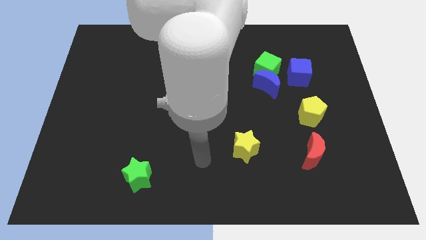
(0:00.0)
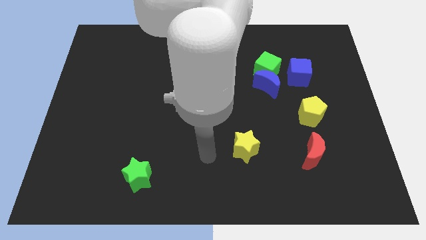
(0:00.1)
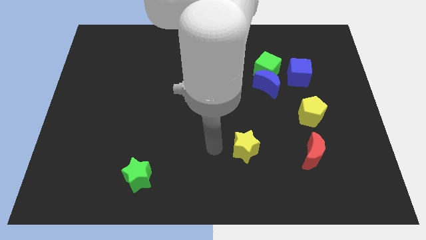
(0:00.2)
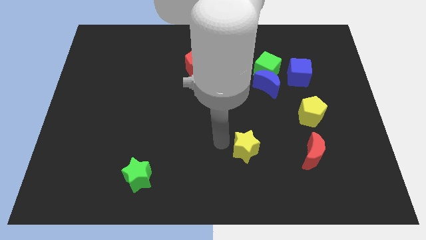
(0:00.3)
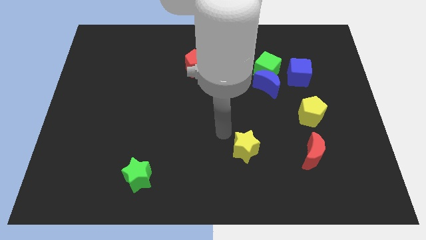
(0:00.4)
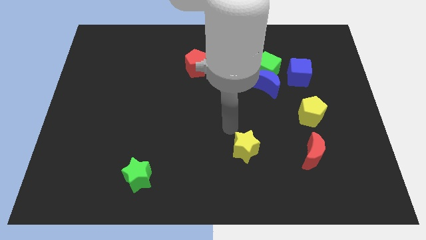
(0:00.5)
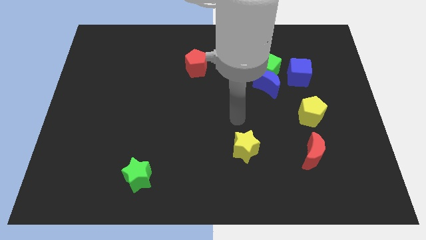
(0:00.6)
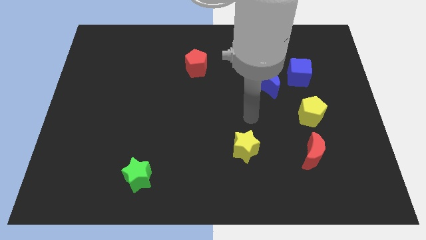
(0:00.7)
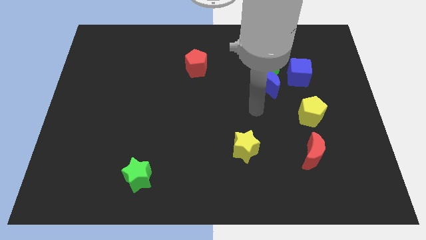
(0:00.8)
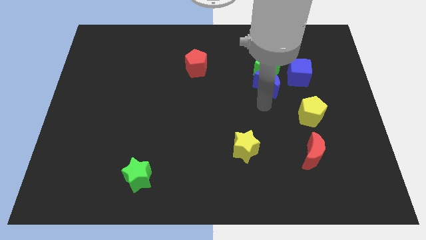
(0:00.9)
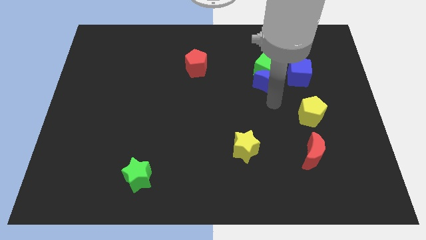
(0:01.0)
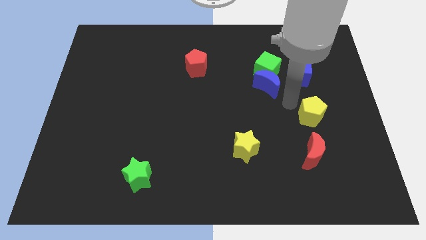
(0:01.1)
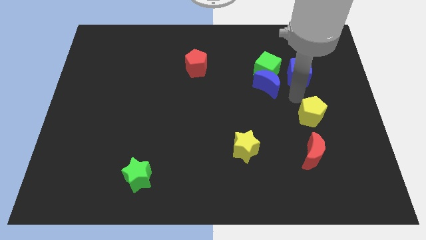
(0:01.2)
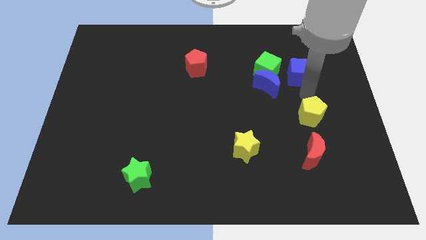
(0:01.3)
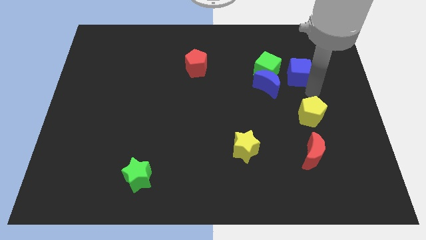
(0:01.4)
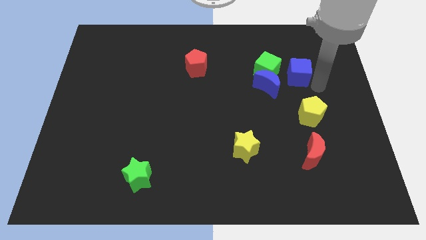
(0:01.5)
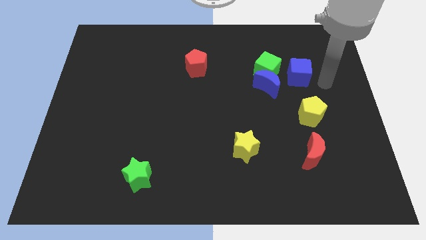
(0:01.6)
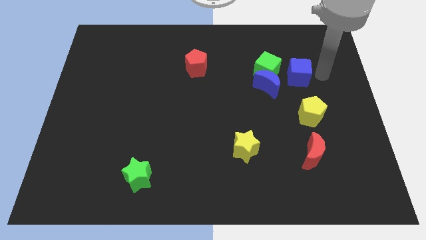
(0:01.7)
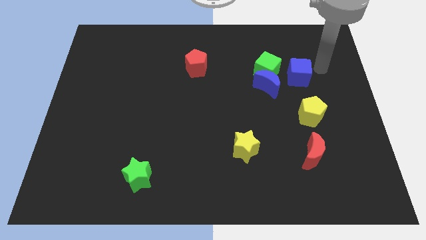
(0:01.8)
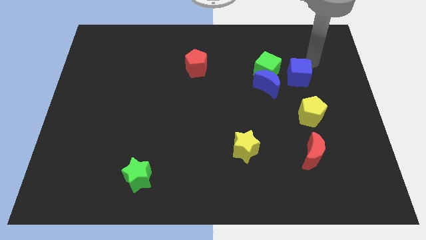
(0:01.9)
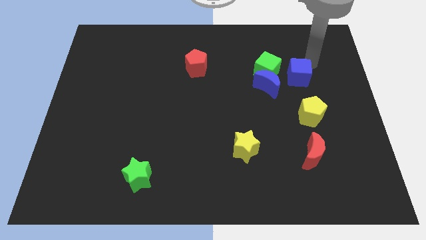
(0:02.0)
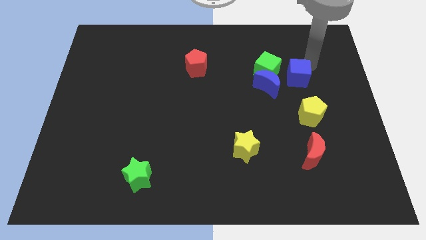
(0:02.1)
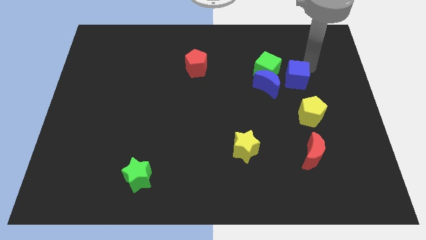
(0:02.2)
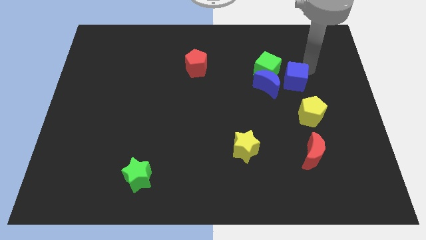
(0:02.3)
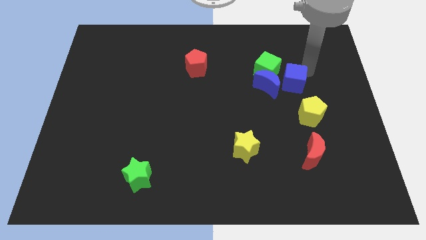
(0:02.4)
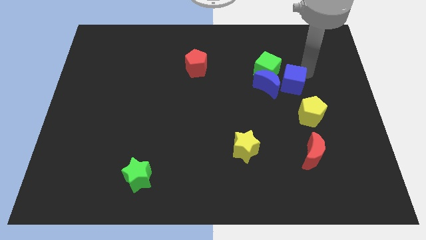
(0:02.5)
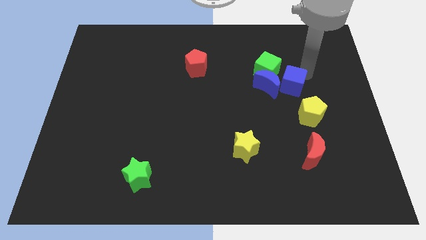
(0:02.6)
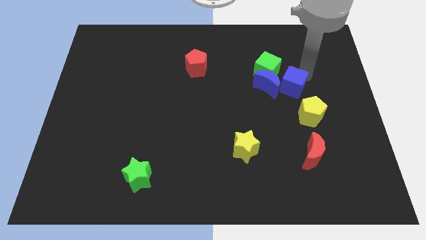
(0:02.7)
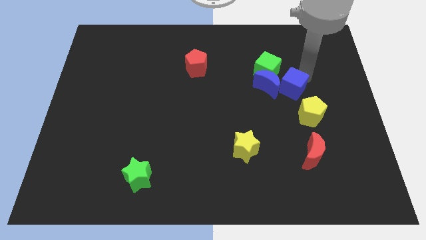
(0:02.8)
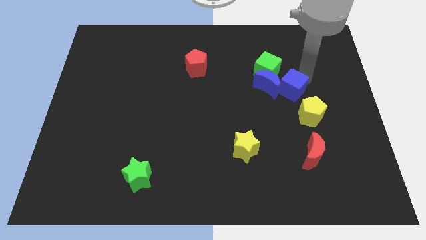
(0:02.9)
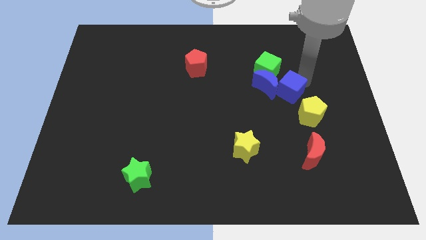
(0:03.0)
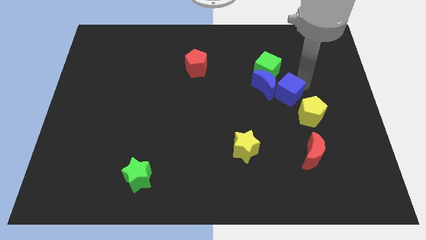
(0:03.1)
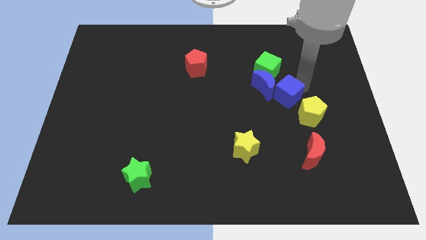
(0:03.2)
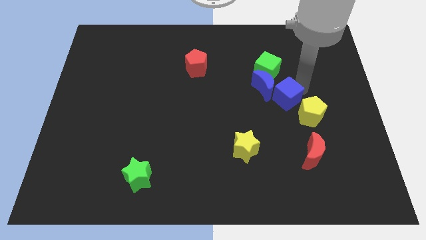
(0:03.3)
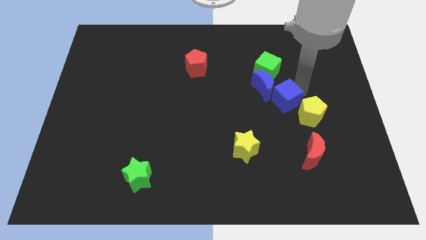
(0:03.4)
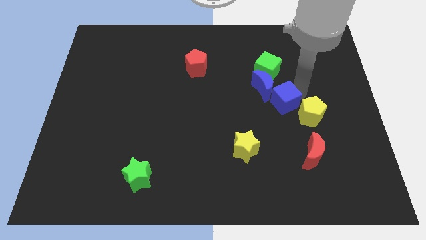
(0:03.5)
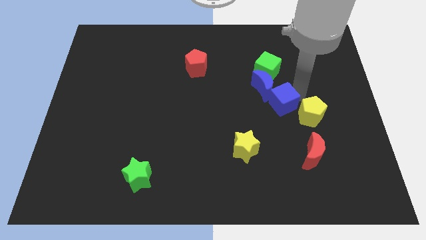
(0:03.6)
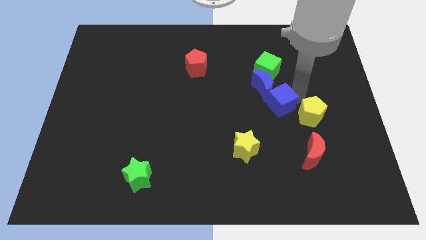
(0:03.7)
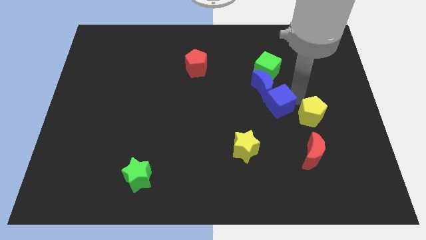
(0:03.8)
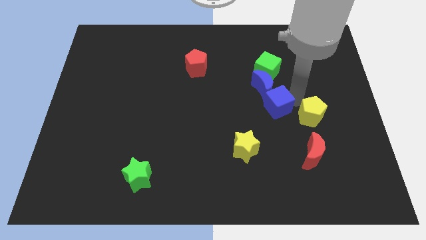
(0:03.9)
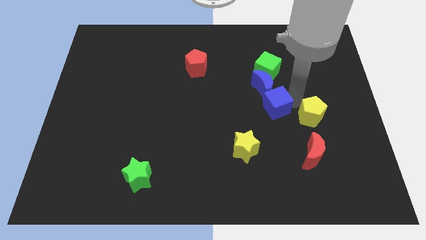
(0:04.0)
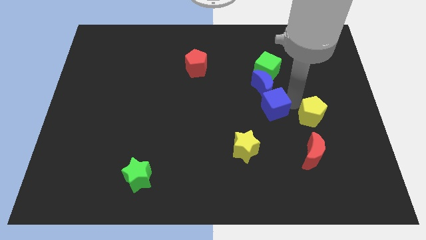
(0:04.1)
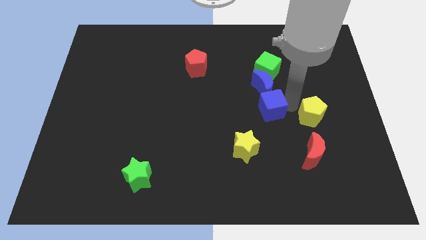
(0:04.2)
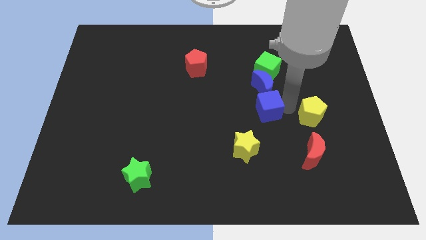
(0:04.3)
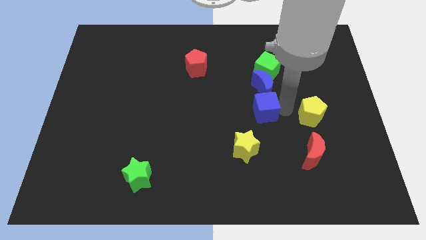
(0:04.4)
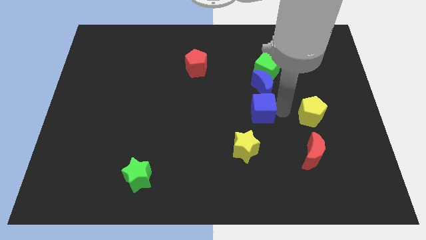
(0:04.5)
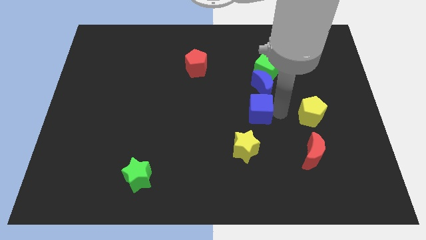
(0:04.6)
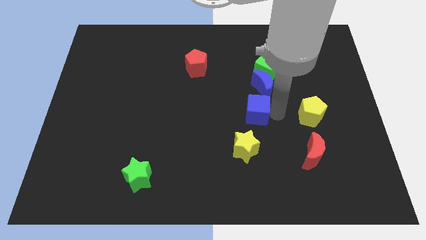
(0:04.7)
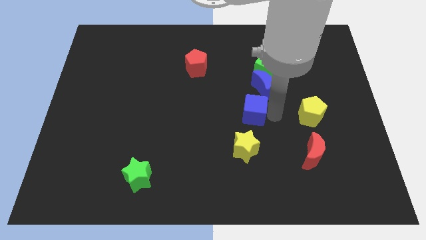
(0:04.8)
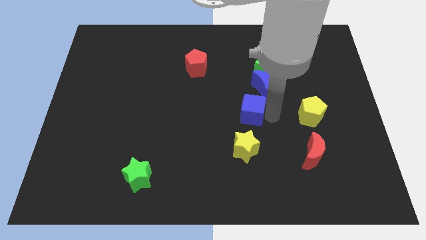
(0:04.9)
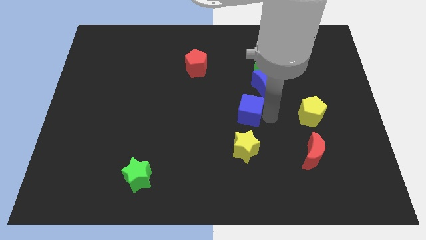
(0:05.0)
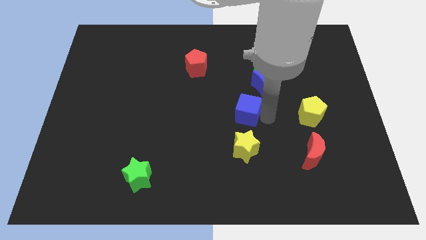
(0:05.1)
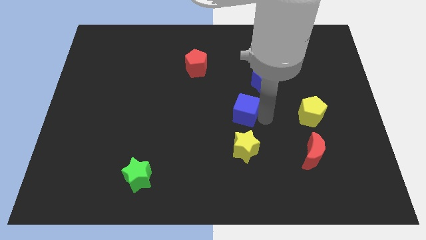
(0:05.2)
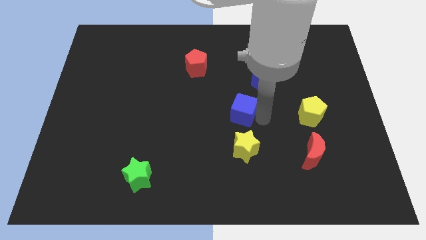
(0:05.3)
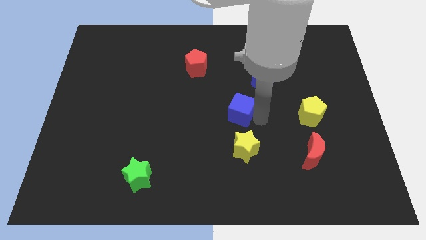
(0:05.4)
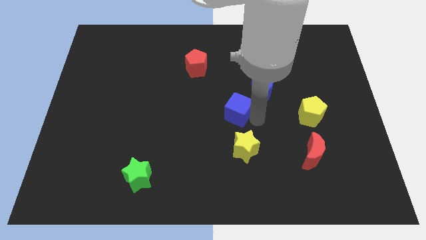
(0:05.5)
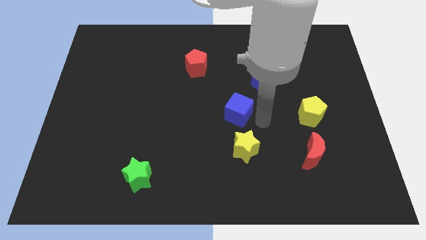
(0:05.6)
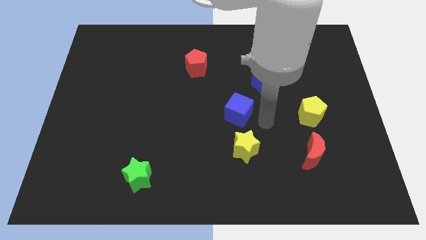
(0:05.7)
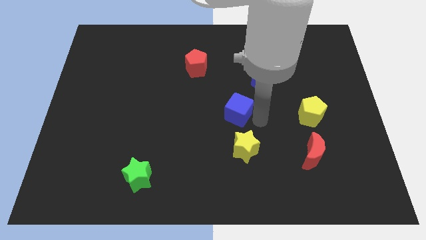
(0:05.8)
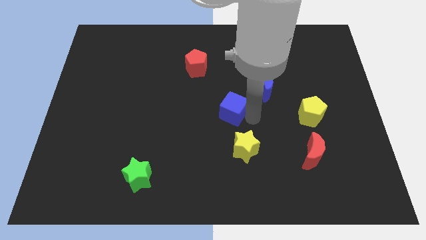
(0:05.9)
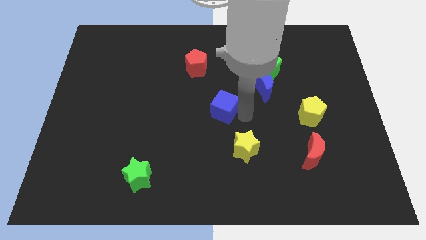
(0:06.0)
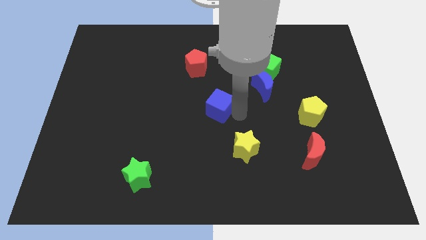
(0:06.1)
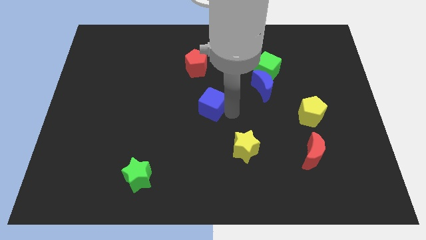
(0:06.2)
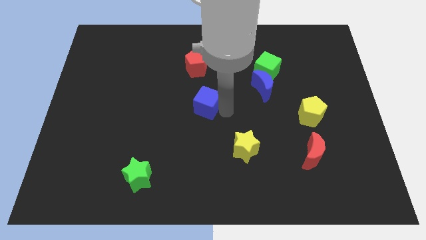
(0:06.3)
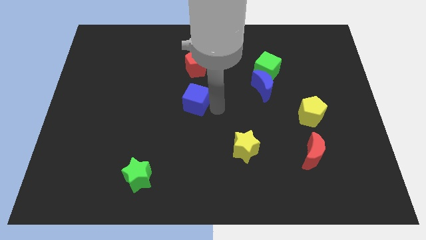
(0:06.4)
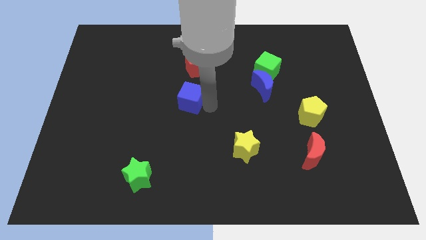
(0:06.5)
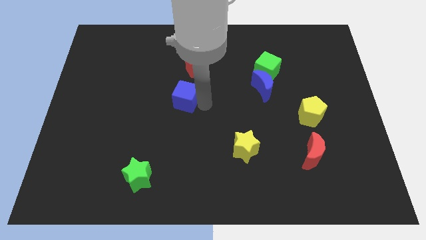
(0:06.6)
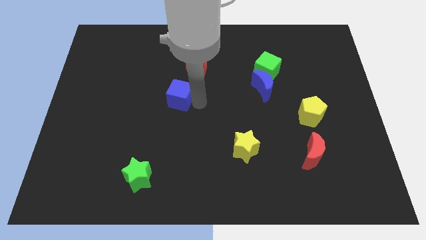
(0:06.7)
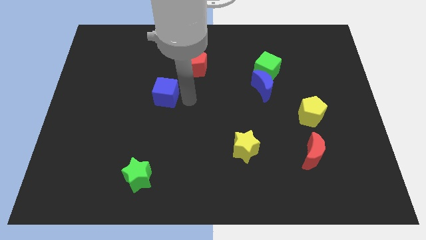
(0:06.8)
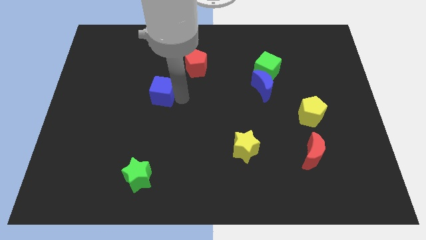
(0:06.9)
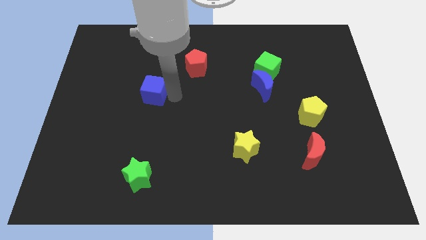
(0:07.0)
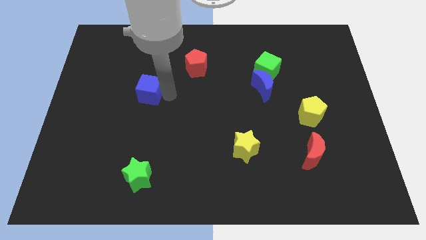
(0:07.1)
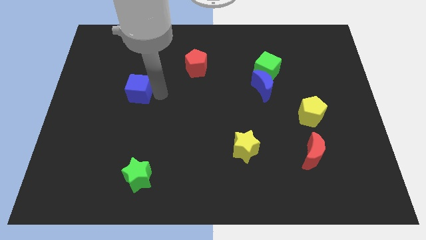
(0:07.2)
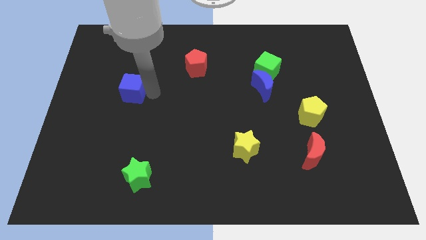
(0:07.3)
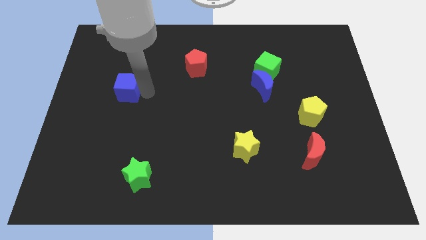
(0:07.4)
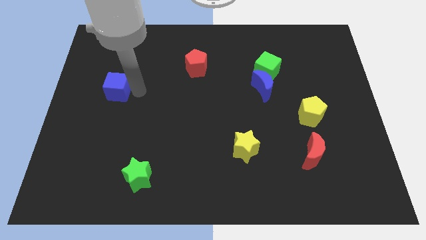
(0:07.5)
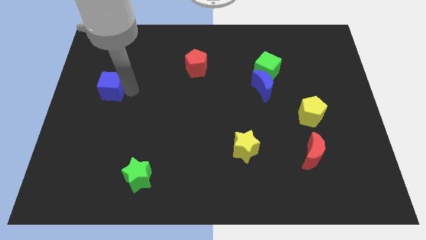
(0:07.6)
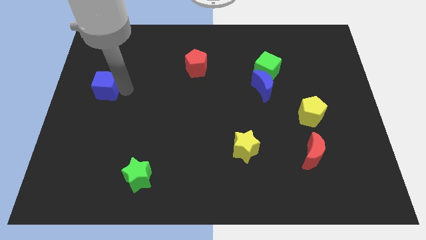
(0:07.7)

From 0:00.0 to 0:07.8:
put the blue cube to the center left
